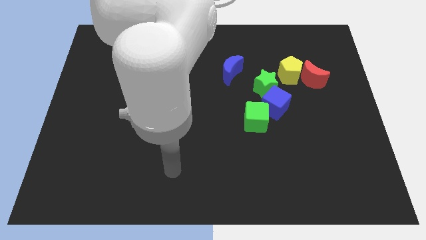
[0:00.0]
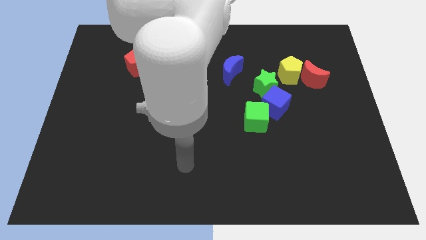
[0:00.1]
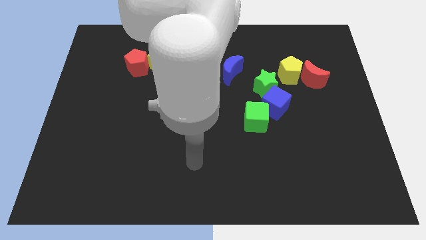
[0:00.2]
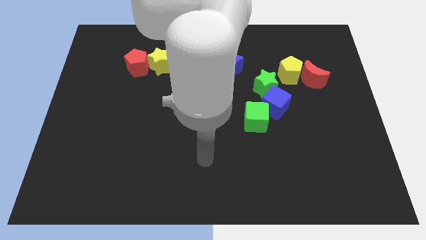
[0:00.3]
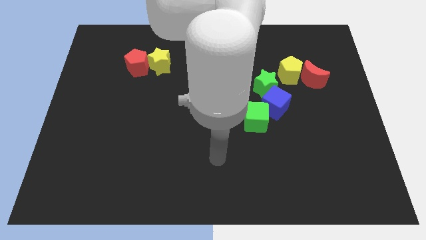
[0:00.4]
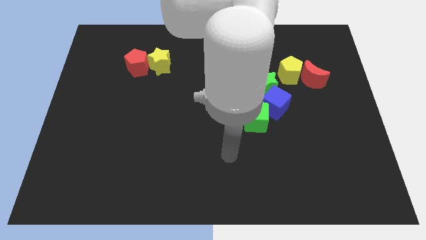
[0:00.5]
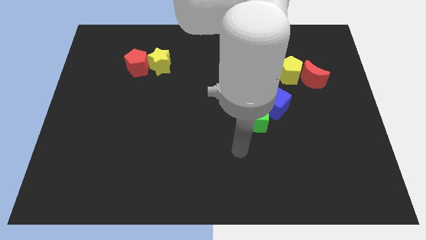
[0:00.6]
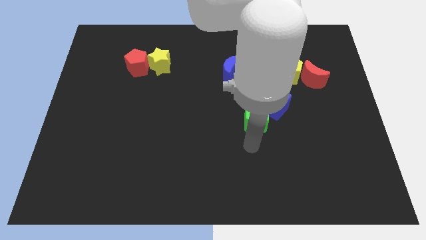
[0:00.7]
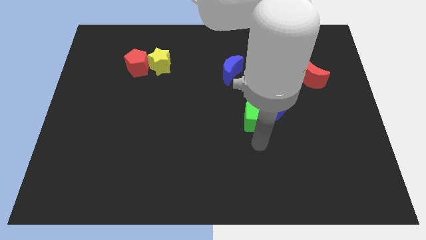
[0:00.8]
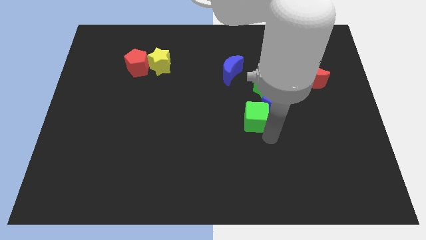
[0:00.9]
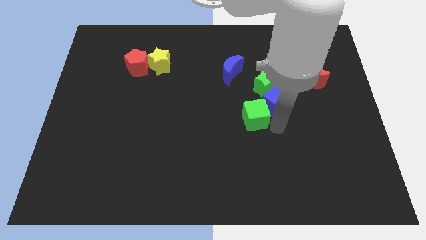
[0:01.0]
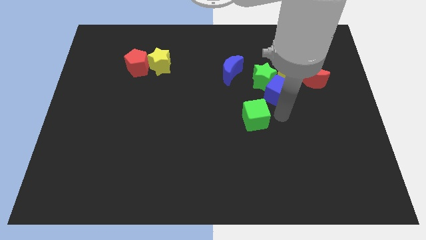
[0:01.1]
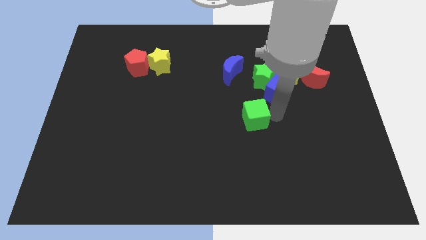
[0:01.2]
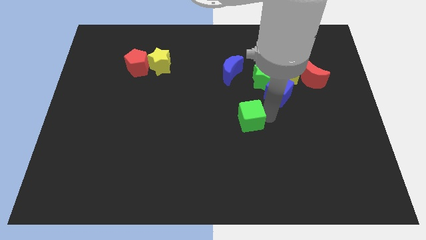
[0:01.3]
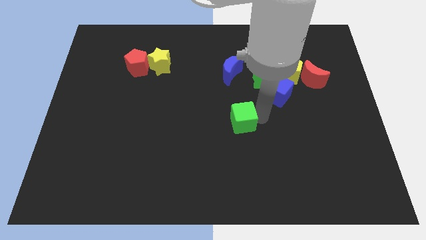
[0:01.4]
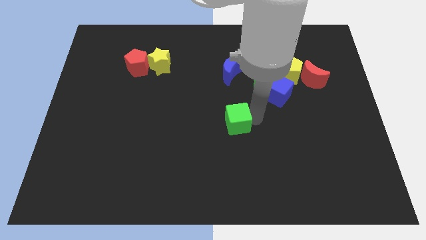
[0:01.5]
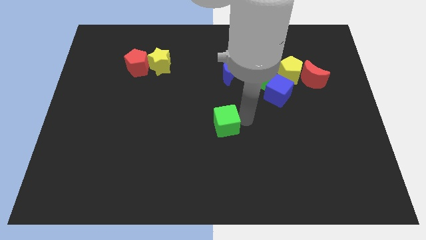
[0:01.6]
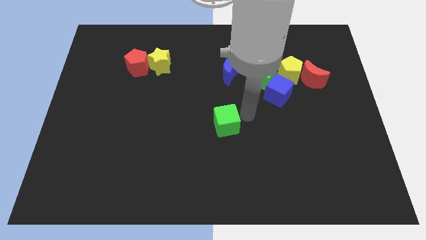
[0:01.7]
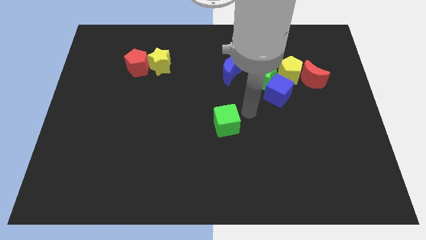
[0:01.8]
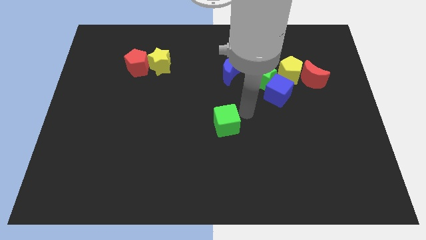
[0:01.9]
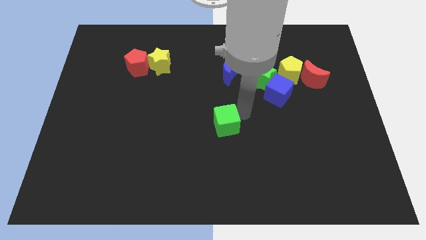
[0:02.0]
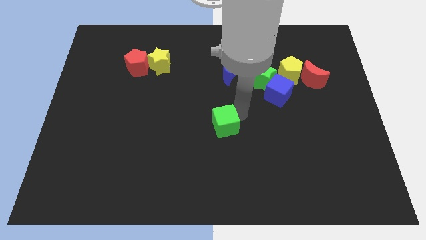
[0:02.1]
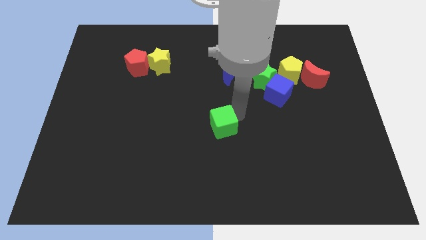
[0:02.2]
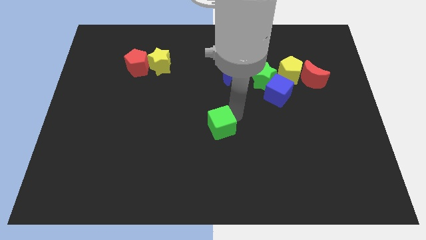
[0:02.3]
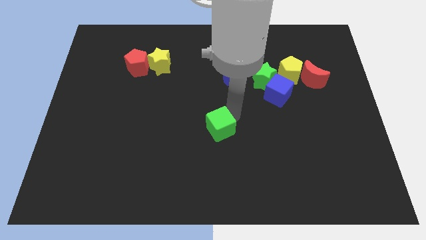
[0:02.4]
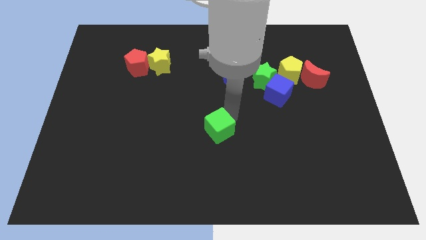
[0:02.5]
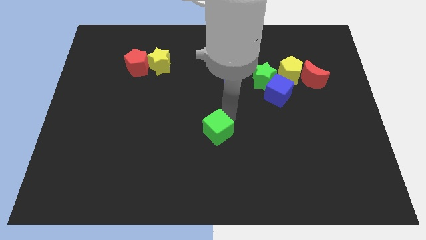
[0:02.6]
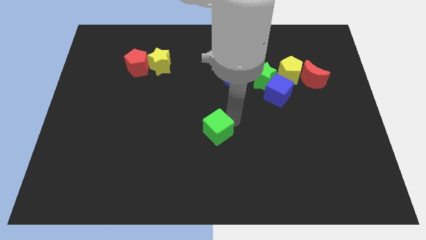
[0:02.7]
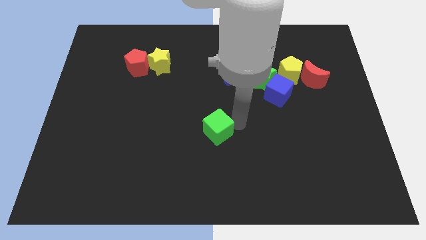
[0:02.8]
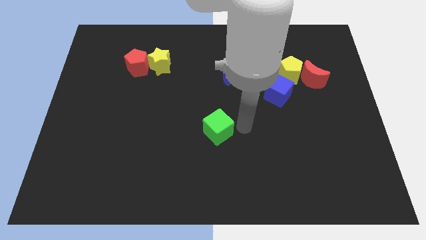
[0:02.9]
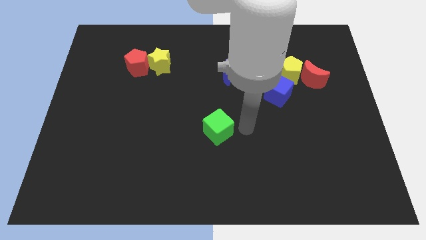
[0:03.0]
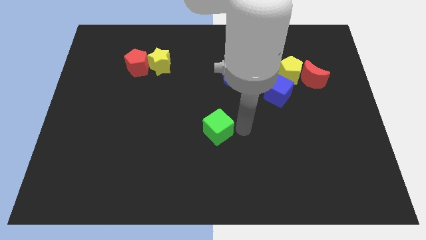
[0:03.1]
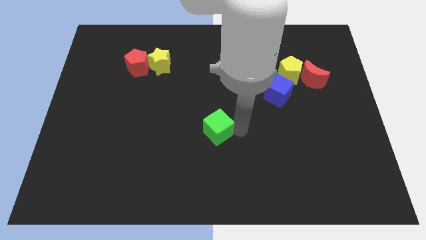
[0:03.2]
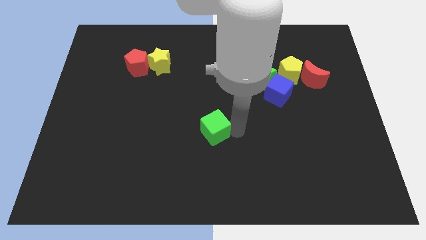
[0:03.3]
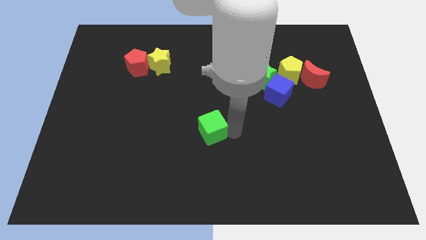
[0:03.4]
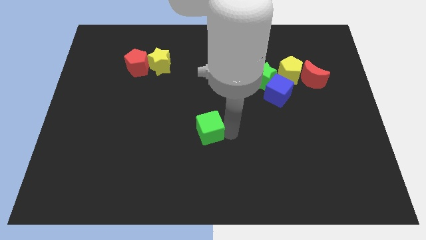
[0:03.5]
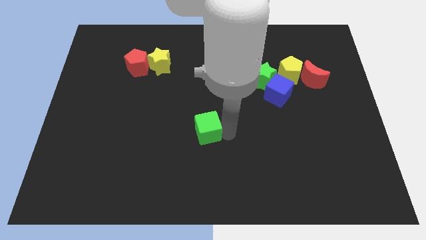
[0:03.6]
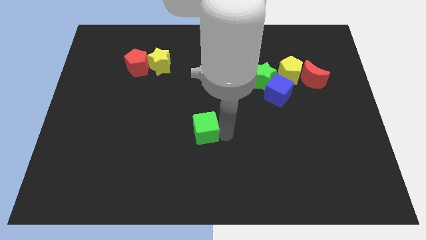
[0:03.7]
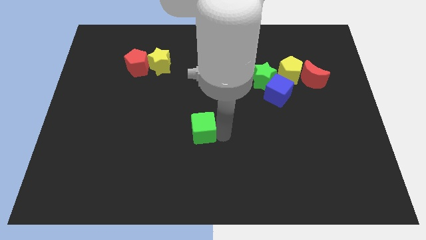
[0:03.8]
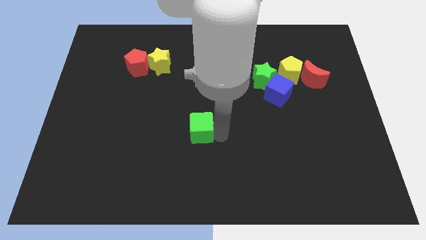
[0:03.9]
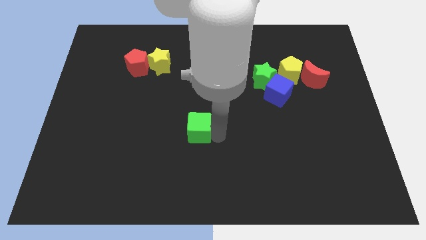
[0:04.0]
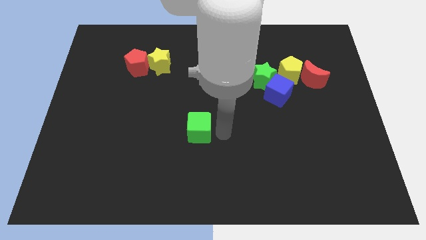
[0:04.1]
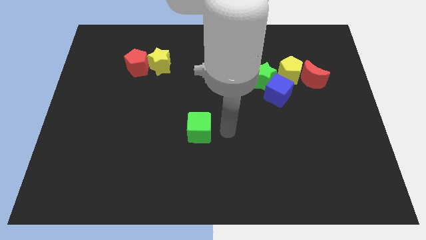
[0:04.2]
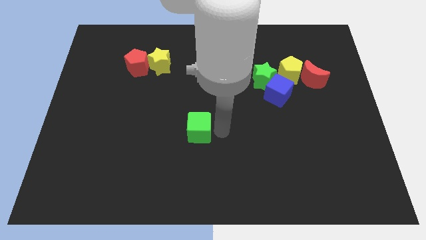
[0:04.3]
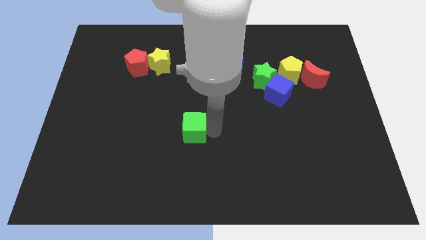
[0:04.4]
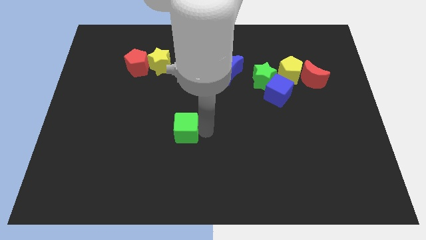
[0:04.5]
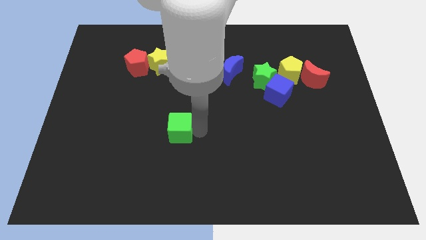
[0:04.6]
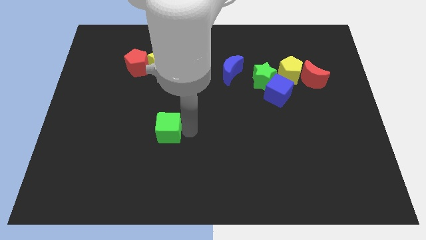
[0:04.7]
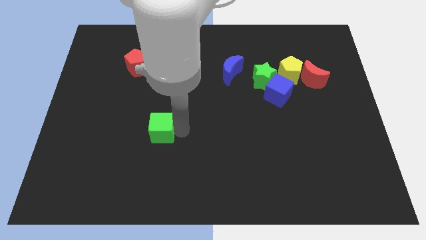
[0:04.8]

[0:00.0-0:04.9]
push the green cube left

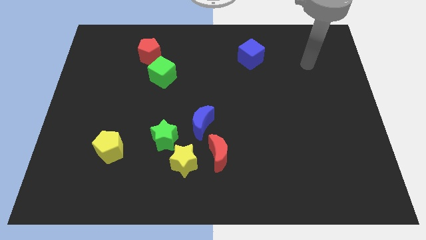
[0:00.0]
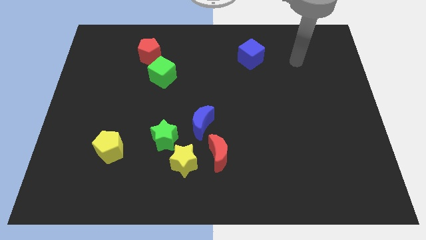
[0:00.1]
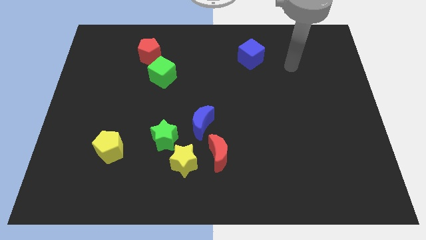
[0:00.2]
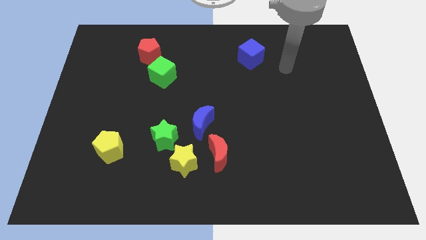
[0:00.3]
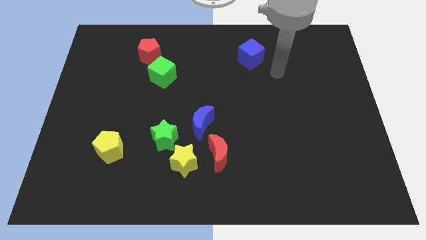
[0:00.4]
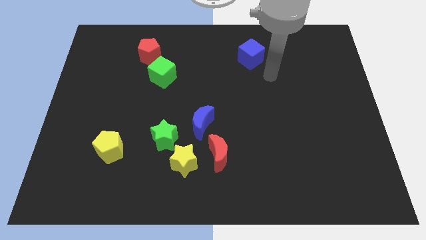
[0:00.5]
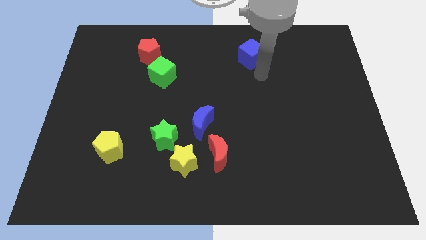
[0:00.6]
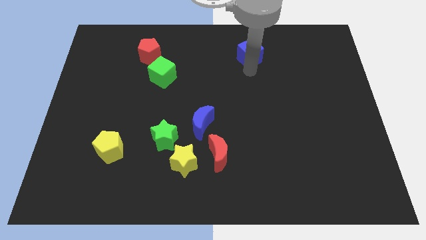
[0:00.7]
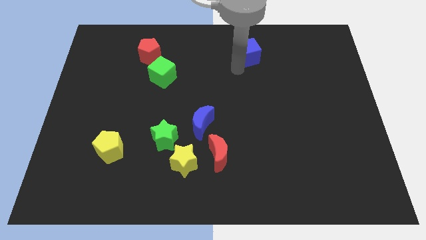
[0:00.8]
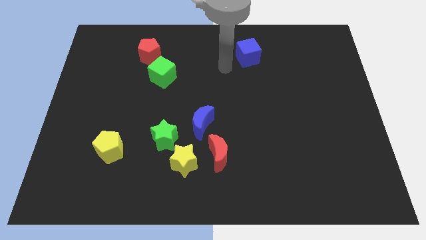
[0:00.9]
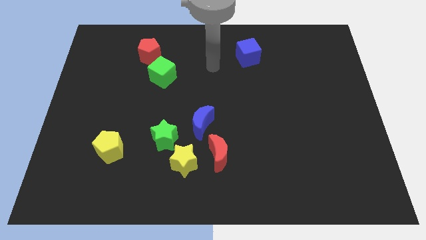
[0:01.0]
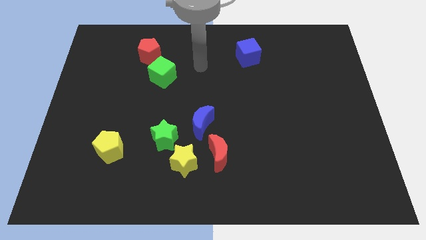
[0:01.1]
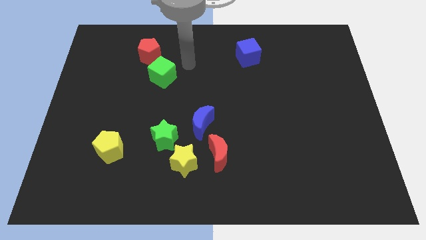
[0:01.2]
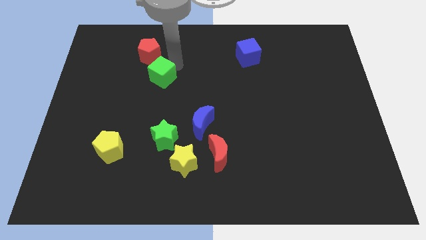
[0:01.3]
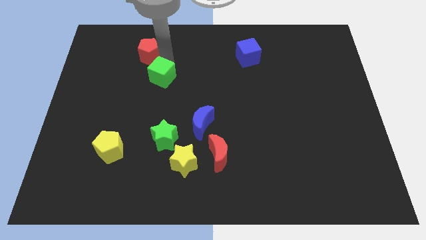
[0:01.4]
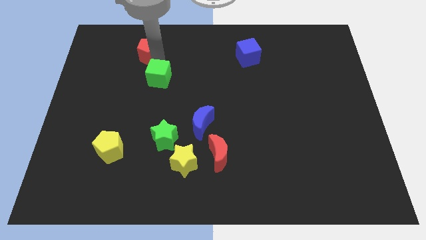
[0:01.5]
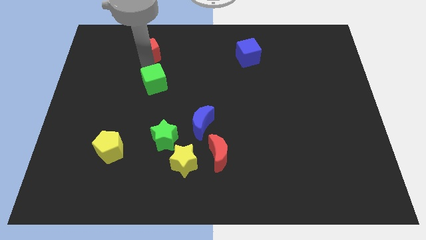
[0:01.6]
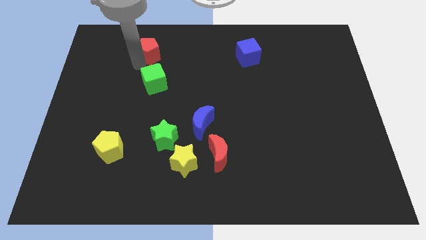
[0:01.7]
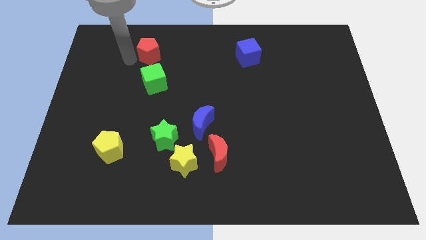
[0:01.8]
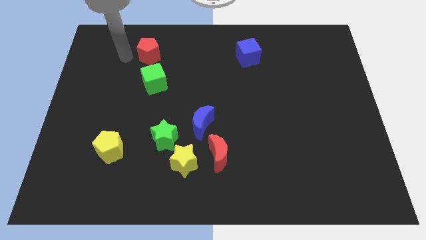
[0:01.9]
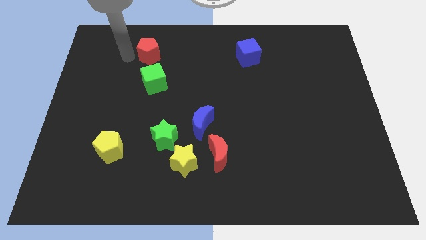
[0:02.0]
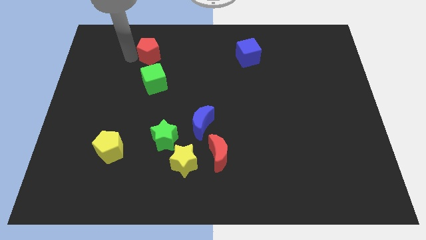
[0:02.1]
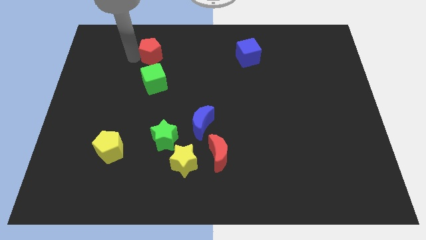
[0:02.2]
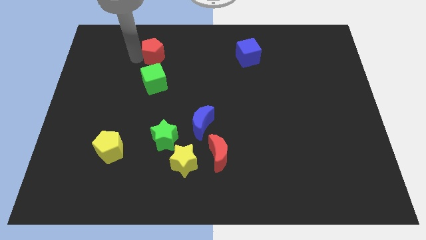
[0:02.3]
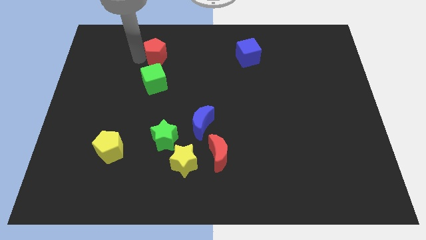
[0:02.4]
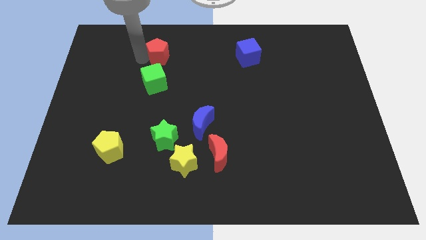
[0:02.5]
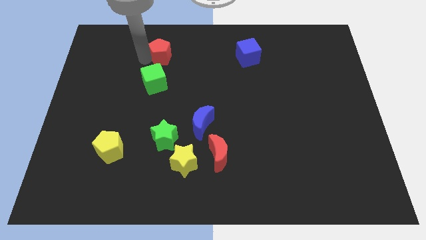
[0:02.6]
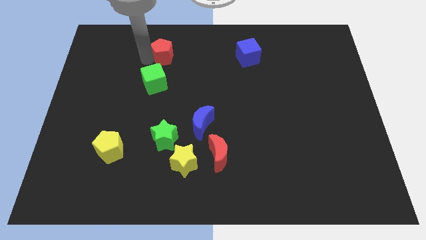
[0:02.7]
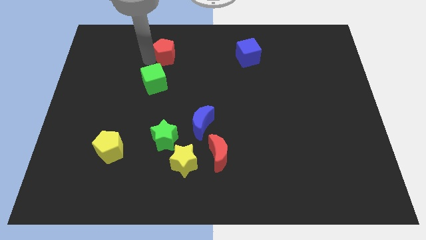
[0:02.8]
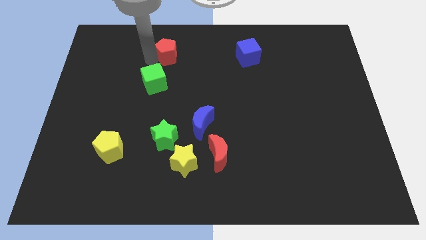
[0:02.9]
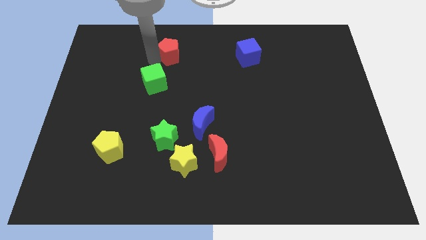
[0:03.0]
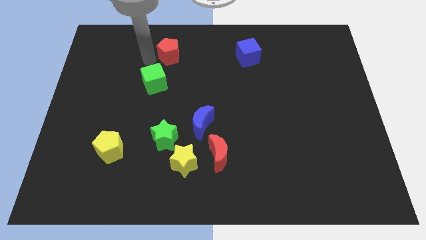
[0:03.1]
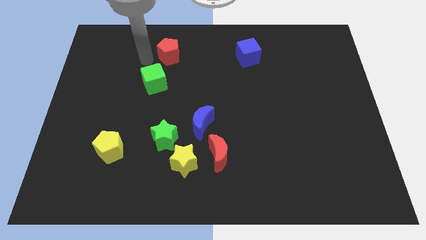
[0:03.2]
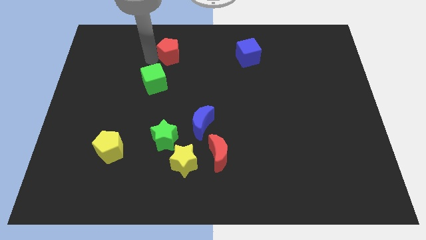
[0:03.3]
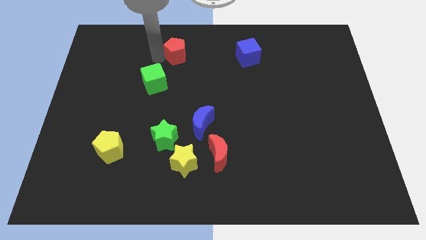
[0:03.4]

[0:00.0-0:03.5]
move the red pentagon slightly right
